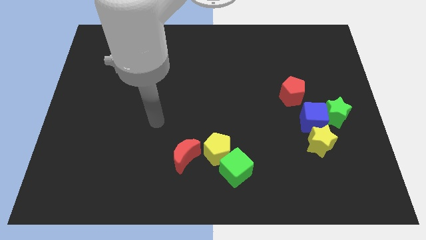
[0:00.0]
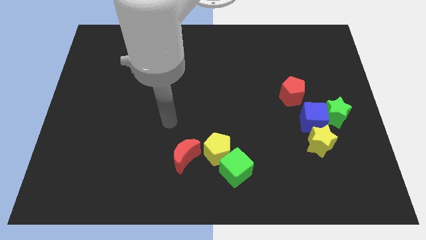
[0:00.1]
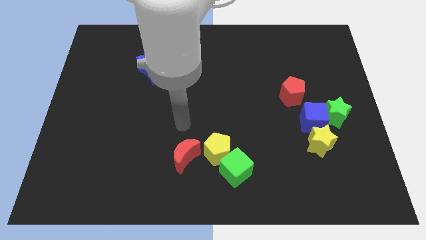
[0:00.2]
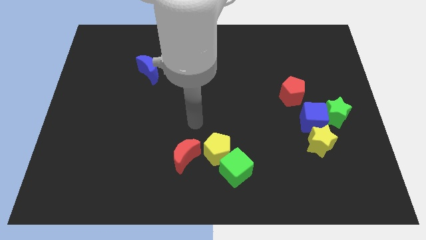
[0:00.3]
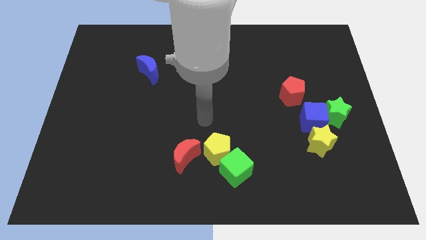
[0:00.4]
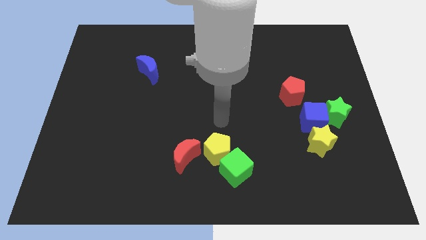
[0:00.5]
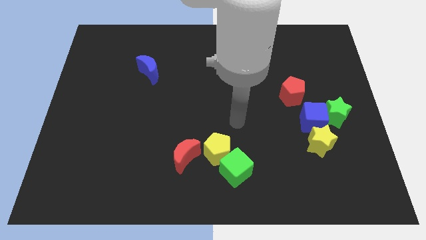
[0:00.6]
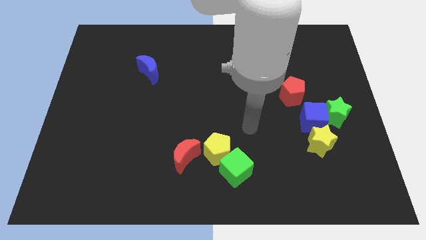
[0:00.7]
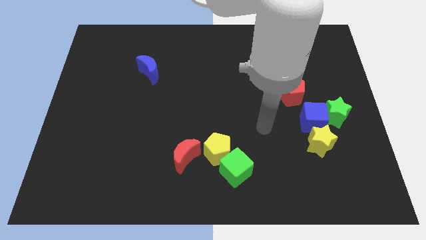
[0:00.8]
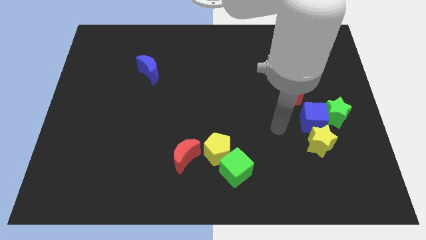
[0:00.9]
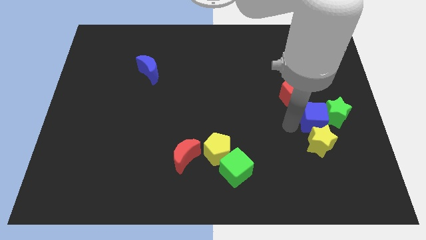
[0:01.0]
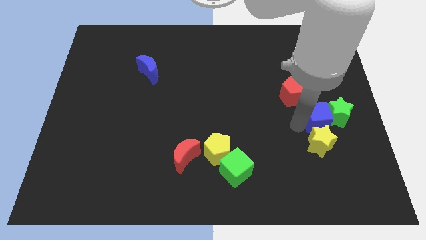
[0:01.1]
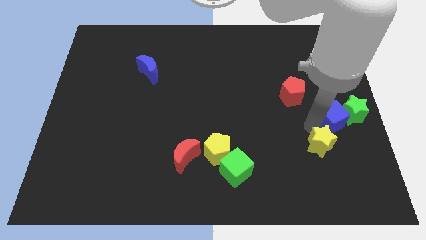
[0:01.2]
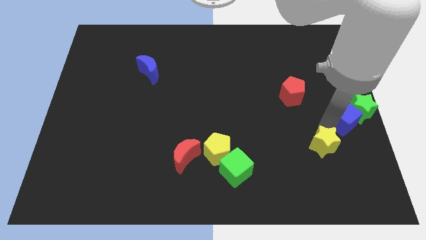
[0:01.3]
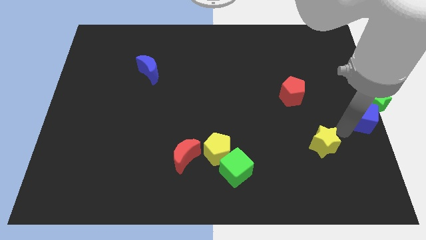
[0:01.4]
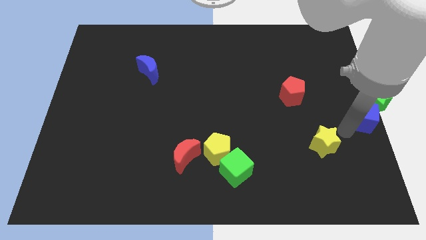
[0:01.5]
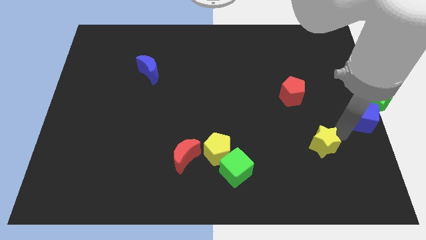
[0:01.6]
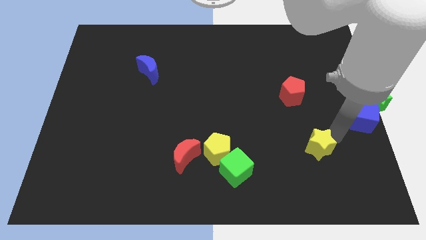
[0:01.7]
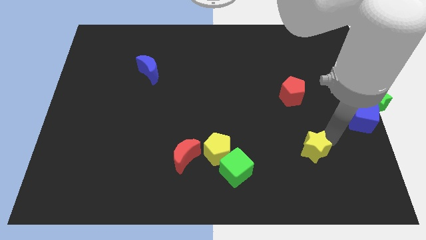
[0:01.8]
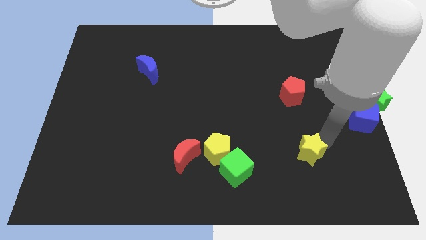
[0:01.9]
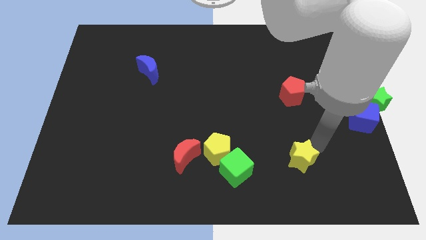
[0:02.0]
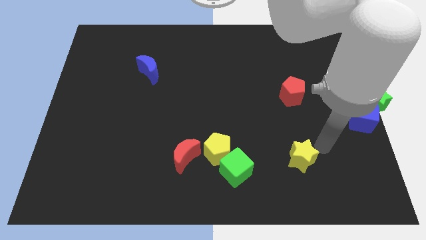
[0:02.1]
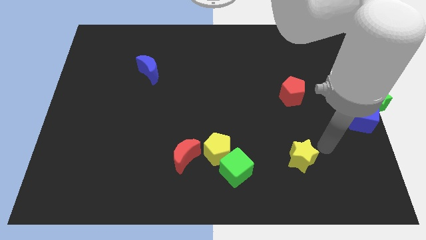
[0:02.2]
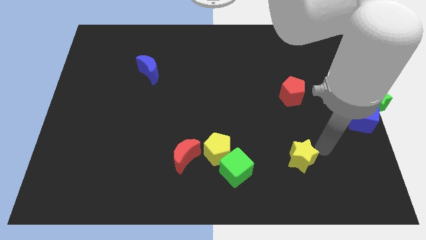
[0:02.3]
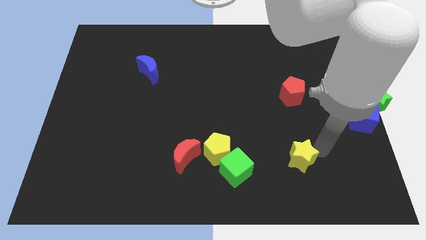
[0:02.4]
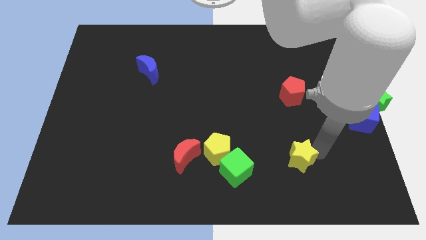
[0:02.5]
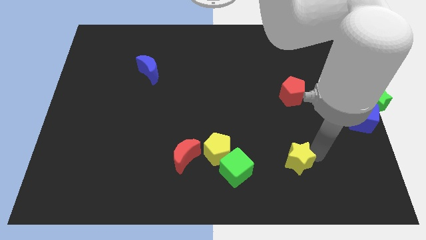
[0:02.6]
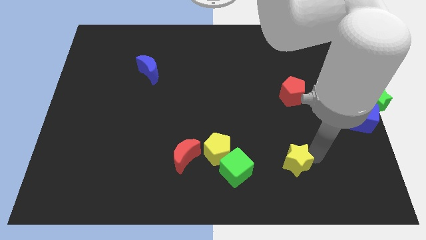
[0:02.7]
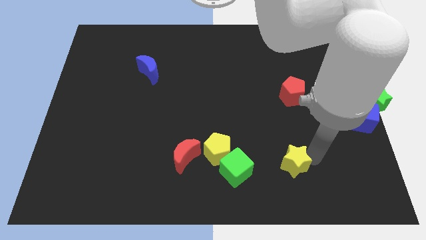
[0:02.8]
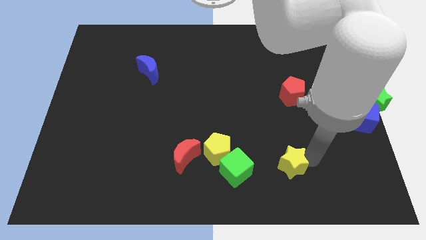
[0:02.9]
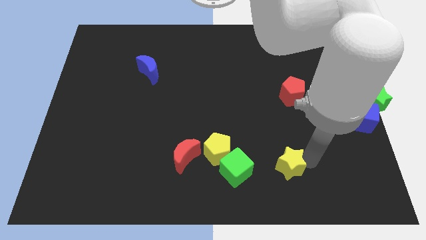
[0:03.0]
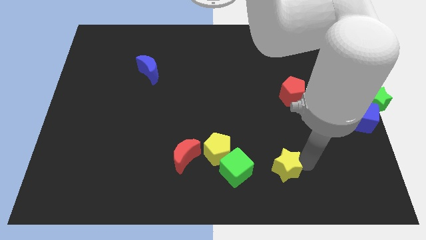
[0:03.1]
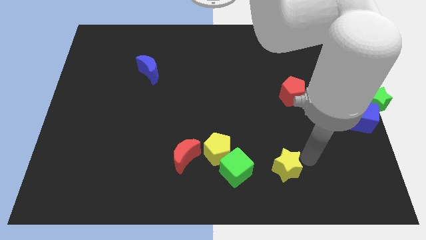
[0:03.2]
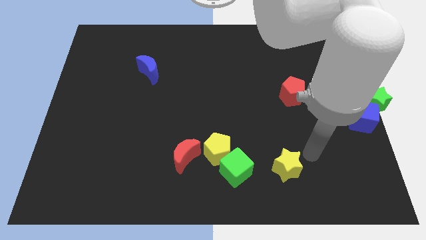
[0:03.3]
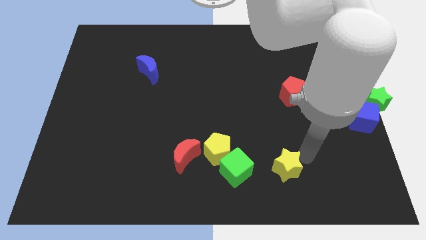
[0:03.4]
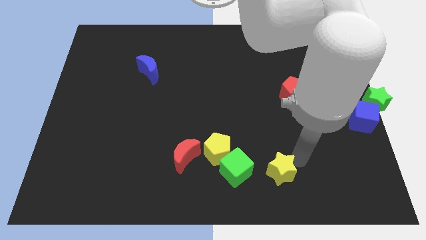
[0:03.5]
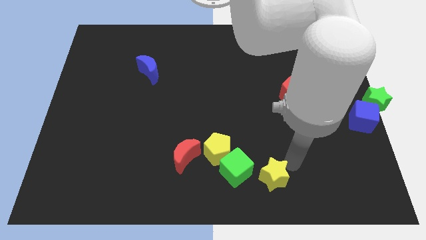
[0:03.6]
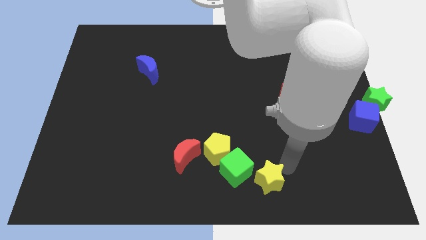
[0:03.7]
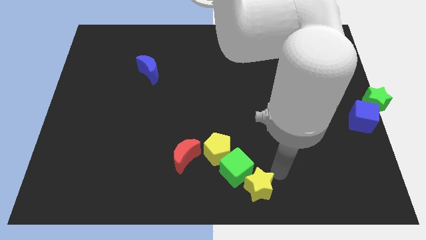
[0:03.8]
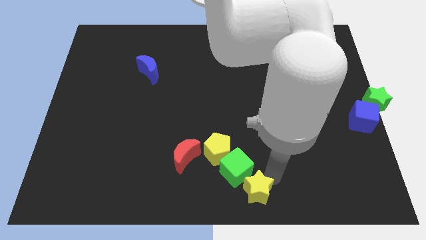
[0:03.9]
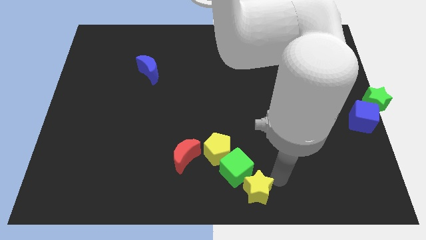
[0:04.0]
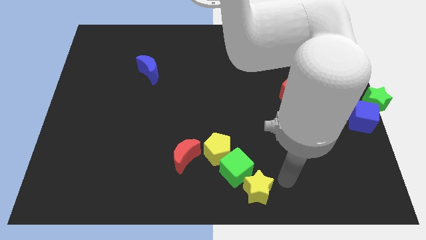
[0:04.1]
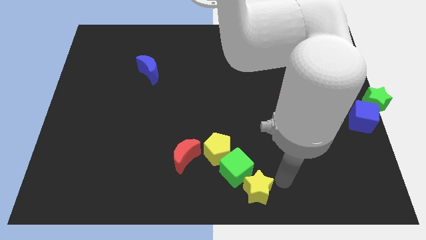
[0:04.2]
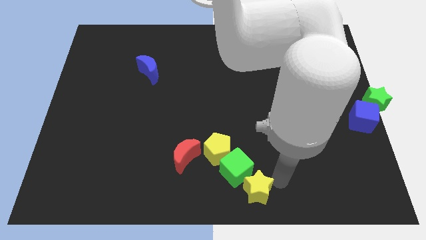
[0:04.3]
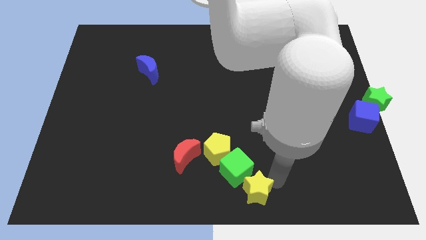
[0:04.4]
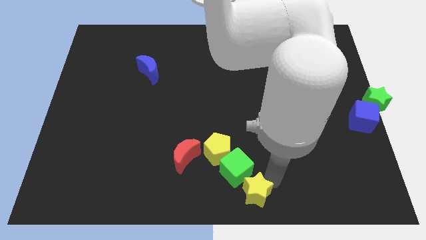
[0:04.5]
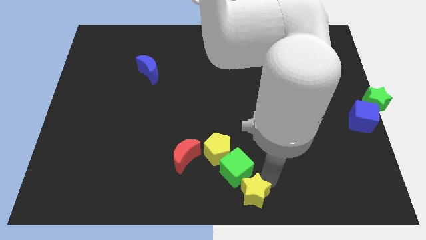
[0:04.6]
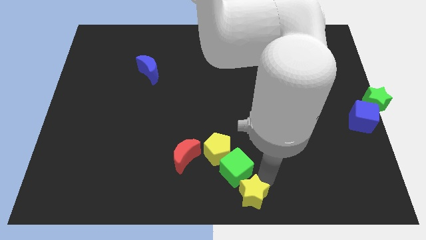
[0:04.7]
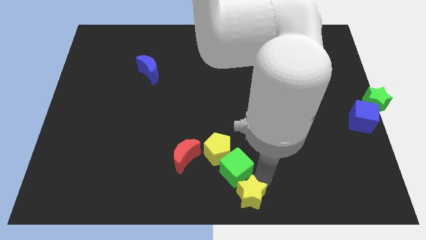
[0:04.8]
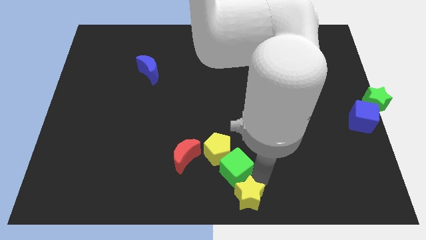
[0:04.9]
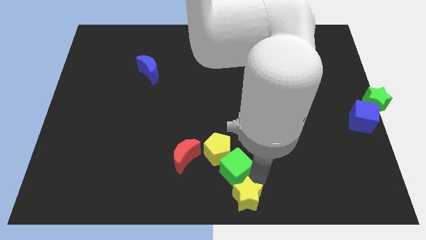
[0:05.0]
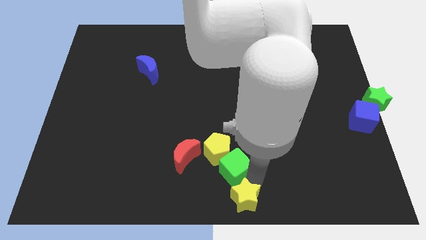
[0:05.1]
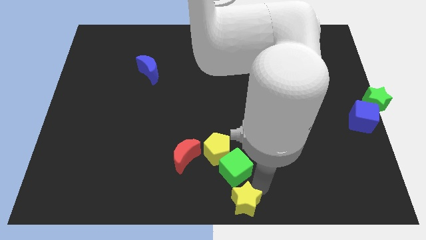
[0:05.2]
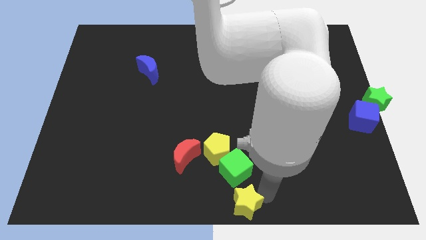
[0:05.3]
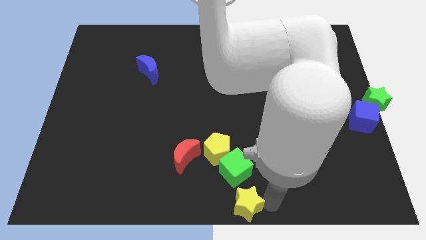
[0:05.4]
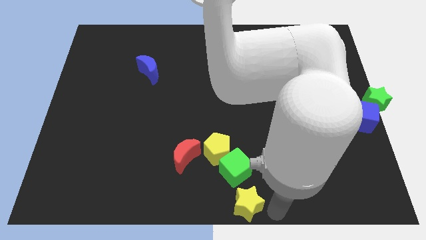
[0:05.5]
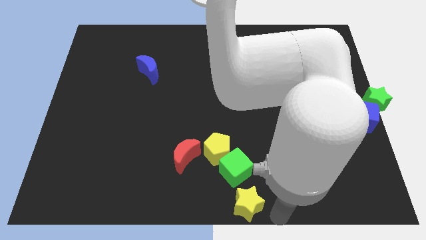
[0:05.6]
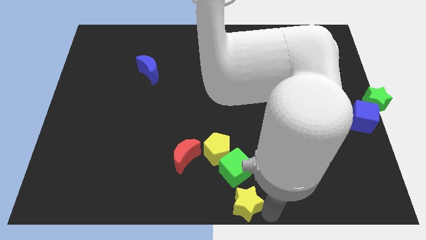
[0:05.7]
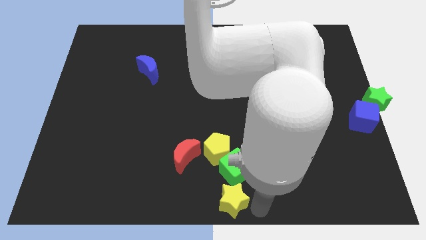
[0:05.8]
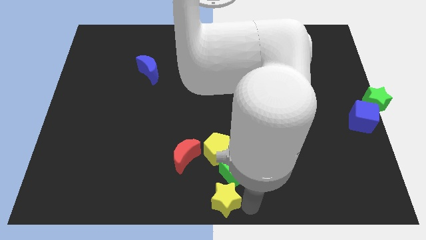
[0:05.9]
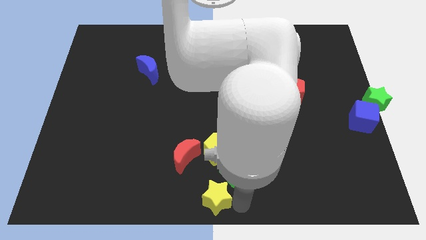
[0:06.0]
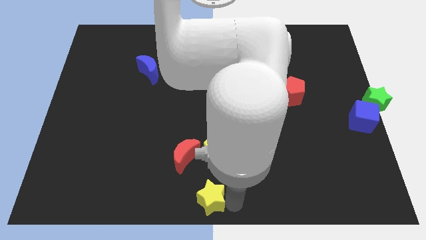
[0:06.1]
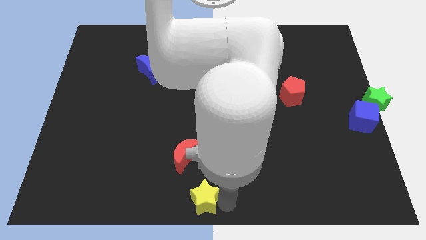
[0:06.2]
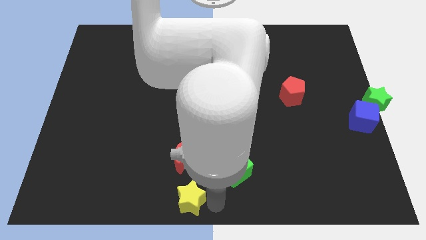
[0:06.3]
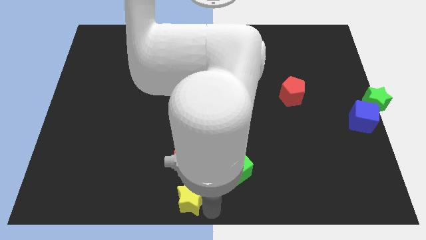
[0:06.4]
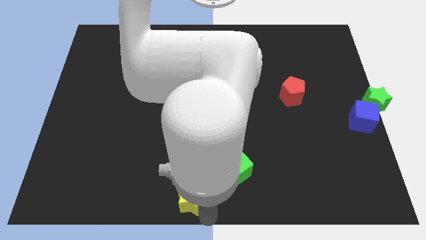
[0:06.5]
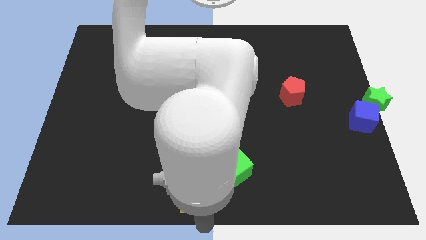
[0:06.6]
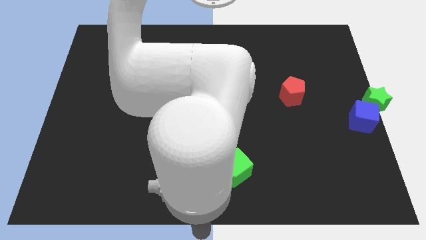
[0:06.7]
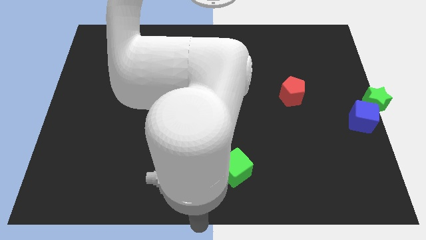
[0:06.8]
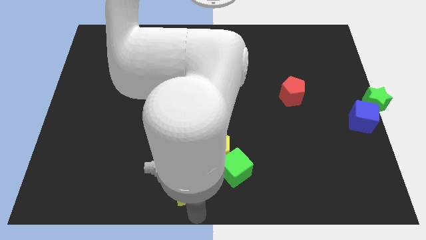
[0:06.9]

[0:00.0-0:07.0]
put the yellow star to the left side of the green cube

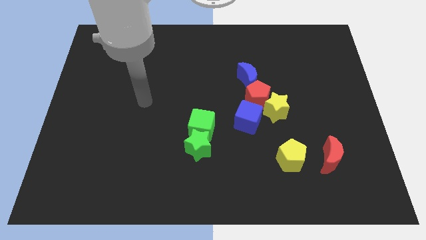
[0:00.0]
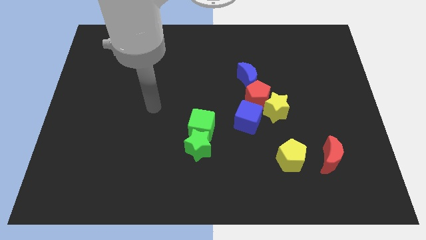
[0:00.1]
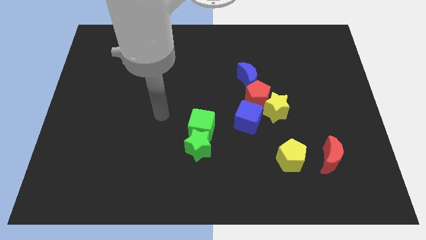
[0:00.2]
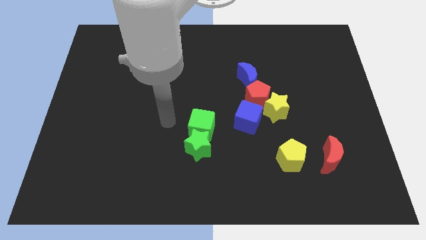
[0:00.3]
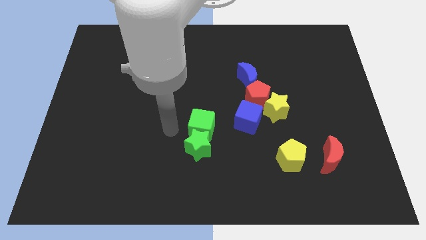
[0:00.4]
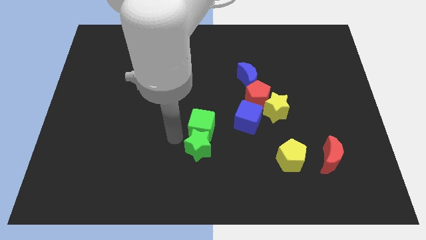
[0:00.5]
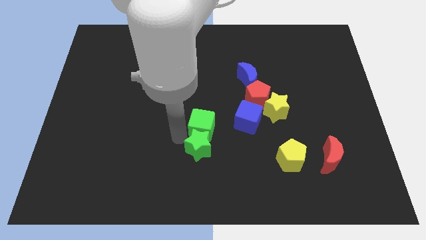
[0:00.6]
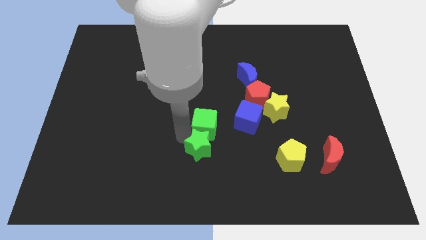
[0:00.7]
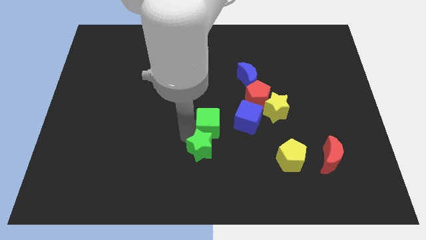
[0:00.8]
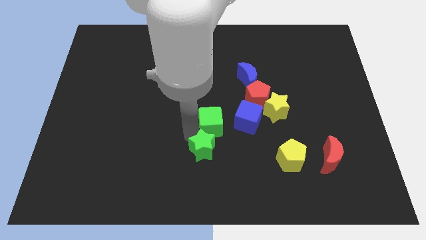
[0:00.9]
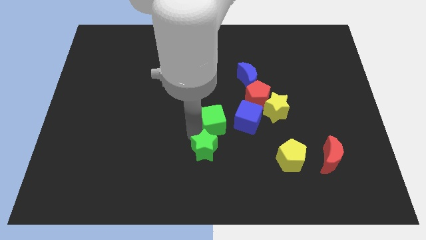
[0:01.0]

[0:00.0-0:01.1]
put the green cube diagonally down and to the left of the red pentagon
